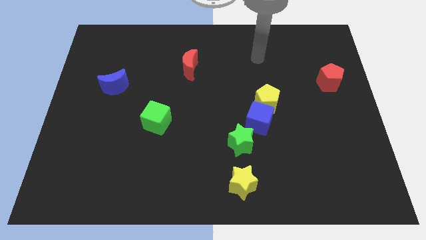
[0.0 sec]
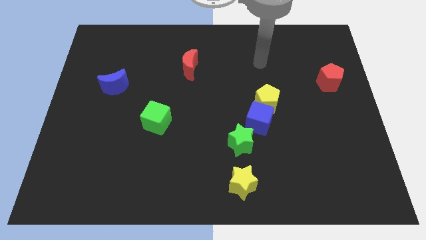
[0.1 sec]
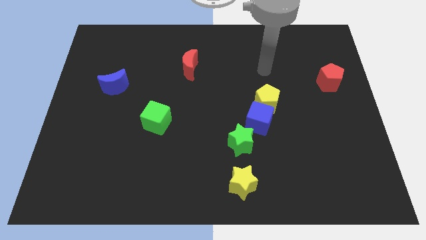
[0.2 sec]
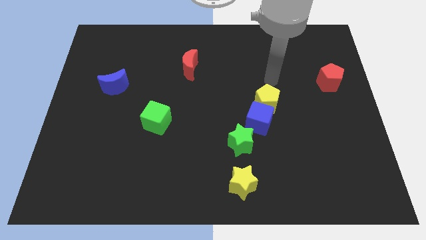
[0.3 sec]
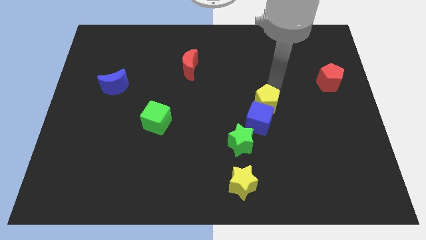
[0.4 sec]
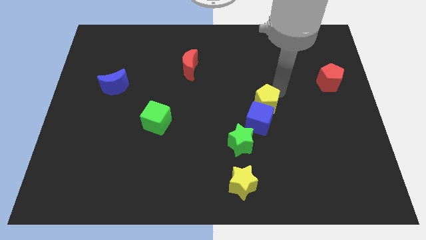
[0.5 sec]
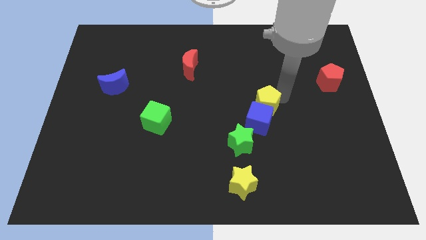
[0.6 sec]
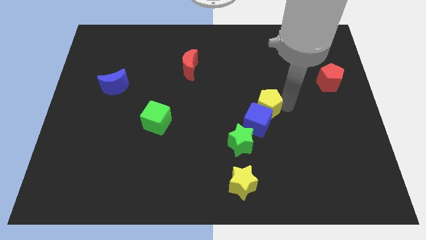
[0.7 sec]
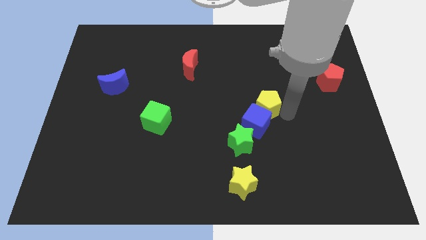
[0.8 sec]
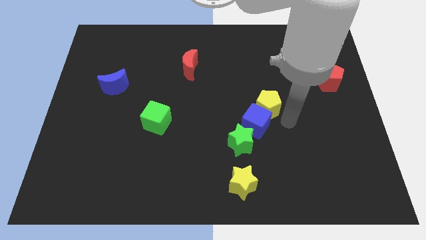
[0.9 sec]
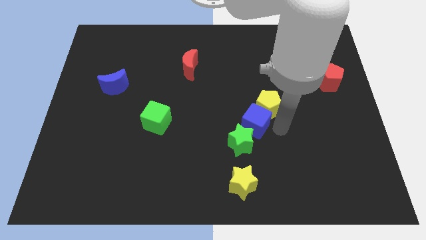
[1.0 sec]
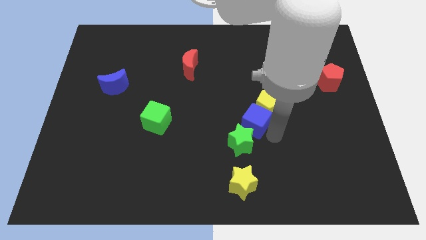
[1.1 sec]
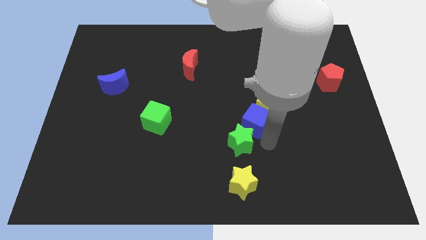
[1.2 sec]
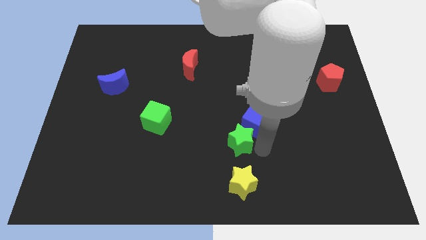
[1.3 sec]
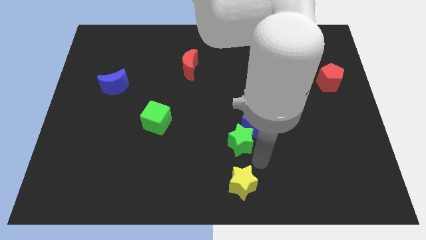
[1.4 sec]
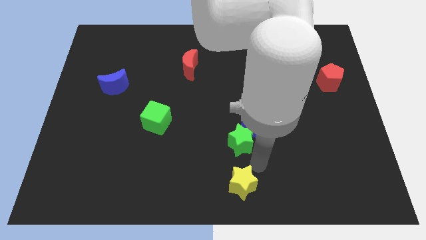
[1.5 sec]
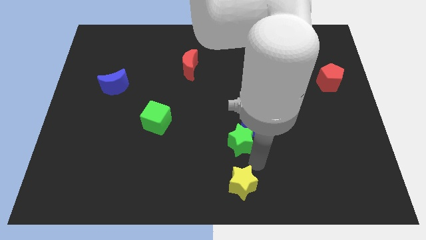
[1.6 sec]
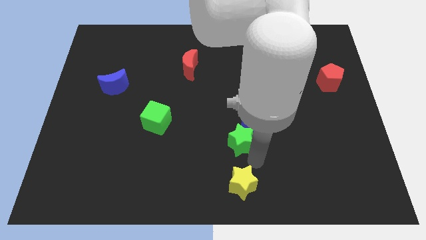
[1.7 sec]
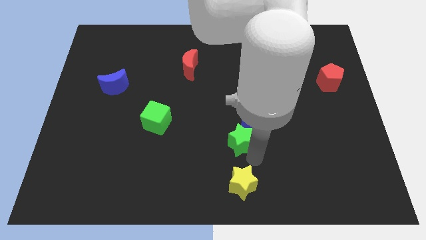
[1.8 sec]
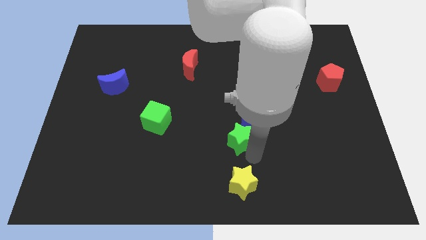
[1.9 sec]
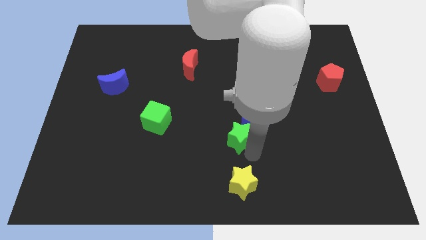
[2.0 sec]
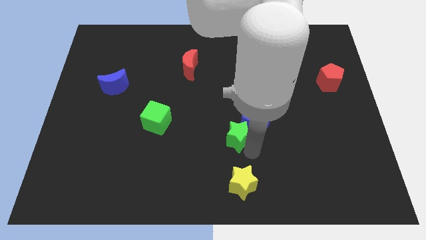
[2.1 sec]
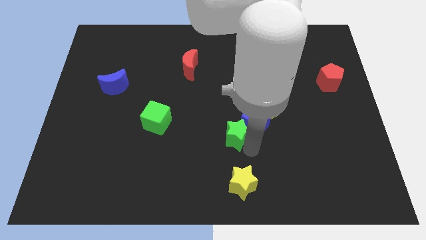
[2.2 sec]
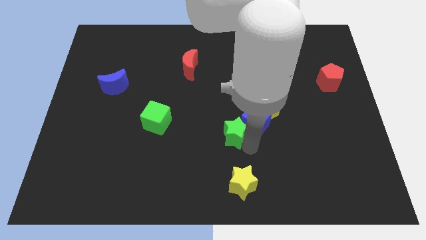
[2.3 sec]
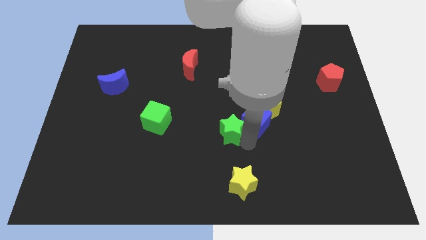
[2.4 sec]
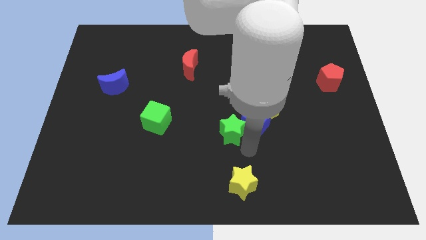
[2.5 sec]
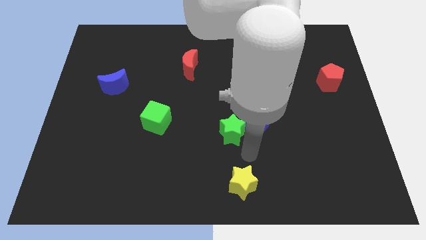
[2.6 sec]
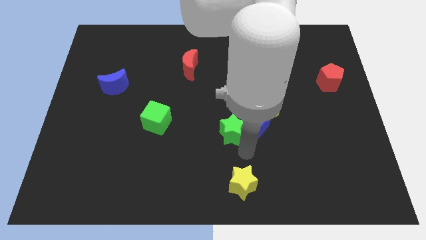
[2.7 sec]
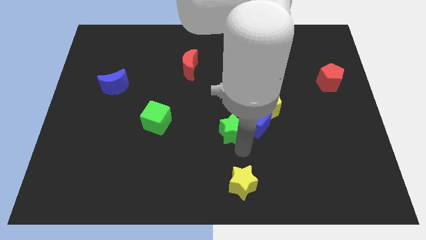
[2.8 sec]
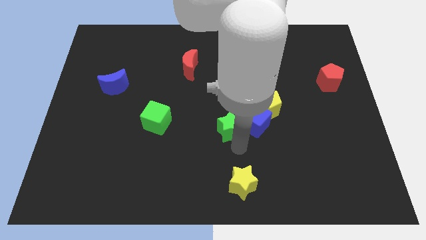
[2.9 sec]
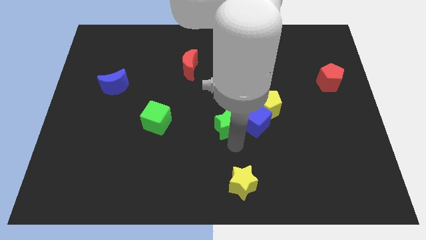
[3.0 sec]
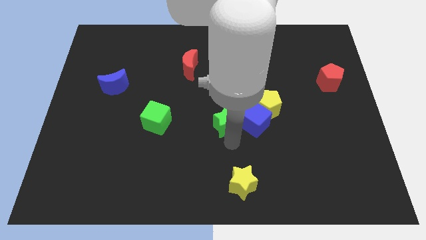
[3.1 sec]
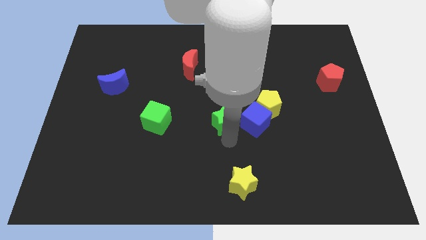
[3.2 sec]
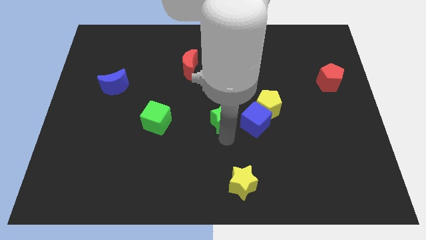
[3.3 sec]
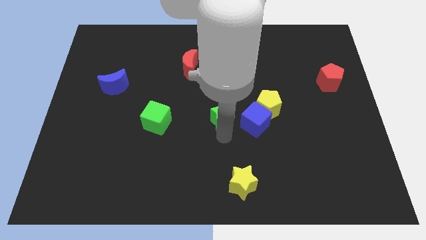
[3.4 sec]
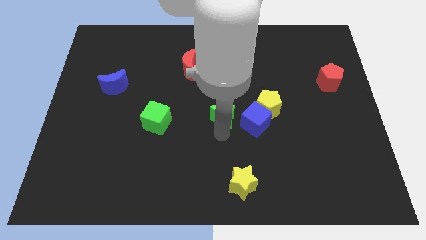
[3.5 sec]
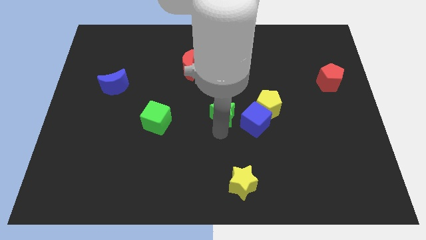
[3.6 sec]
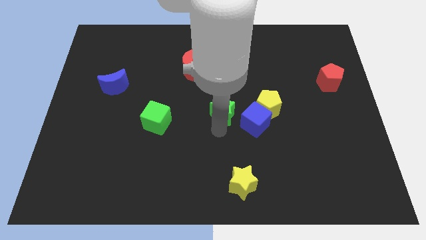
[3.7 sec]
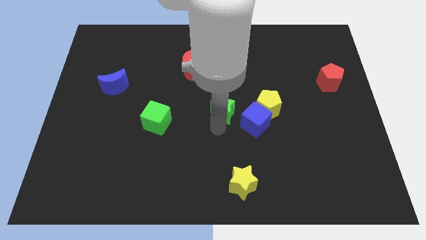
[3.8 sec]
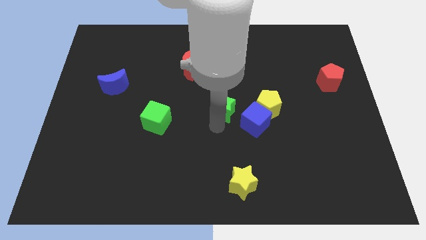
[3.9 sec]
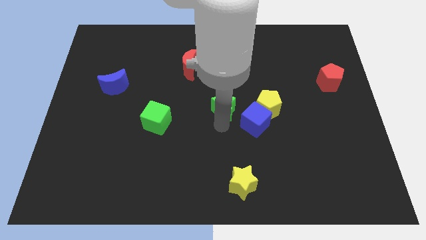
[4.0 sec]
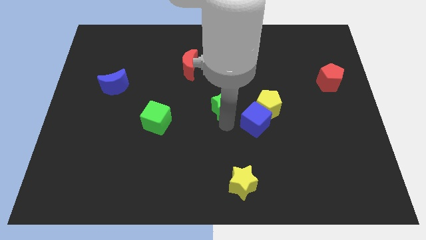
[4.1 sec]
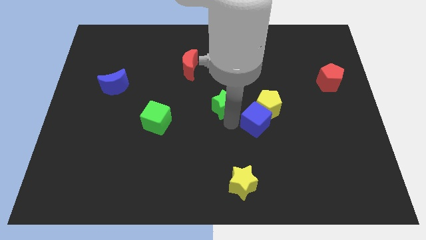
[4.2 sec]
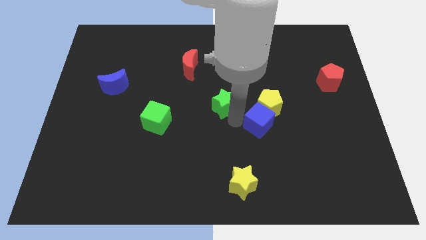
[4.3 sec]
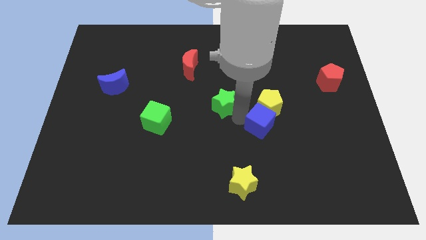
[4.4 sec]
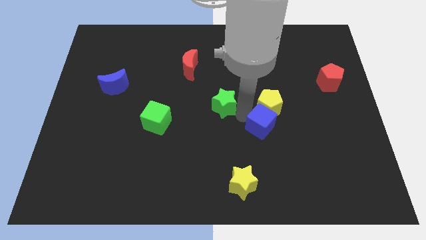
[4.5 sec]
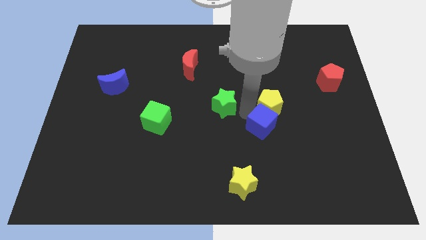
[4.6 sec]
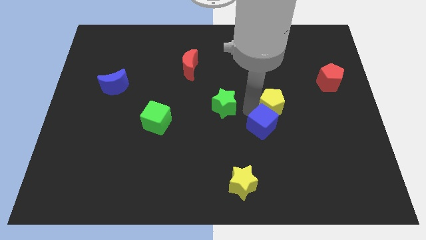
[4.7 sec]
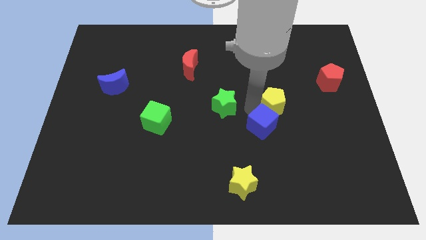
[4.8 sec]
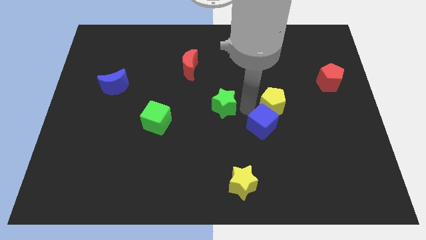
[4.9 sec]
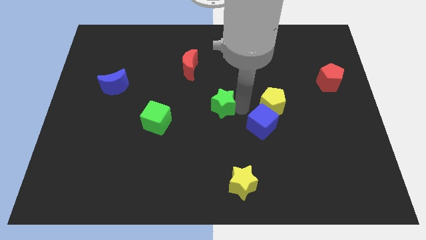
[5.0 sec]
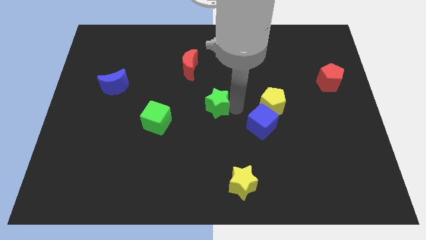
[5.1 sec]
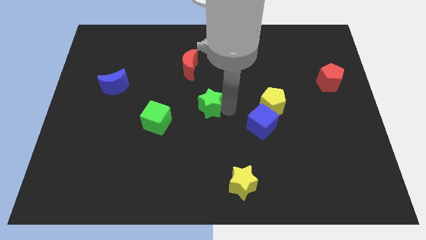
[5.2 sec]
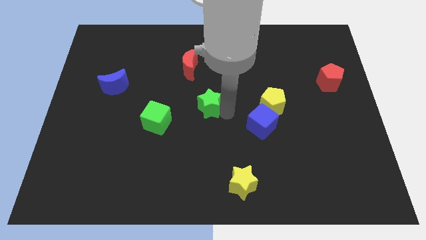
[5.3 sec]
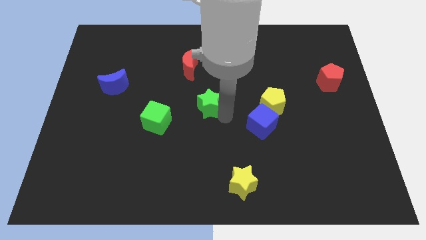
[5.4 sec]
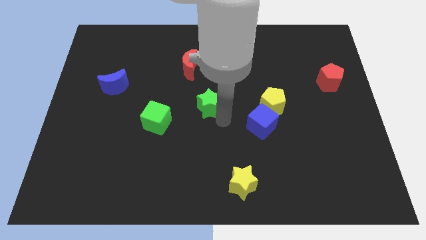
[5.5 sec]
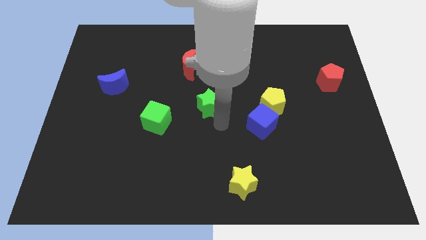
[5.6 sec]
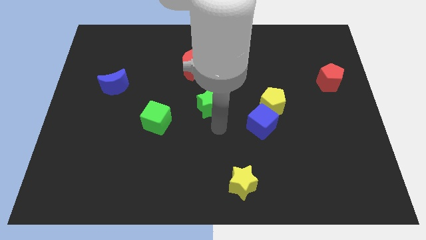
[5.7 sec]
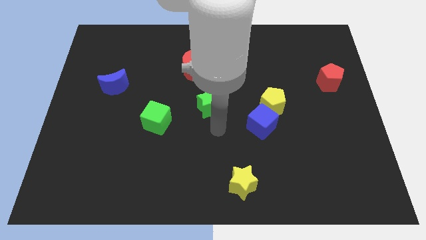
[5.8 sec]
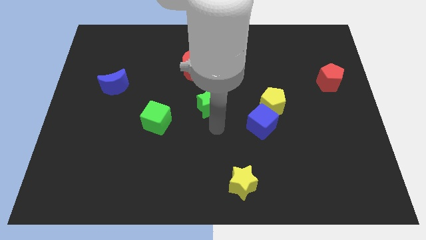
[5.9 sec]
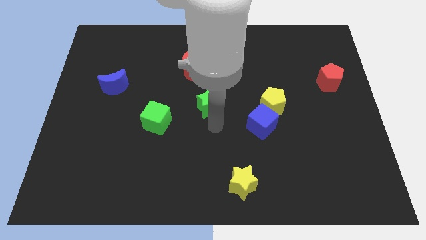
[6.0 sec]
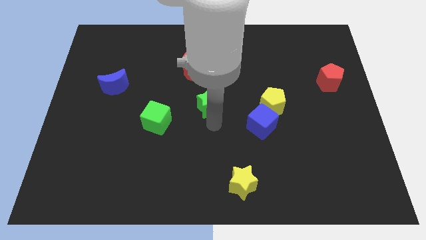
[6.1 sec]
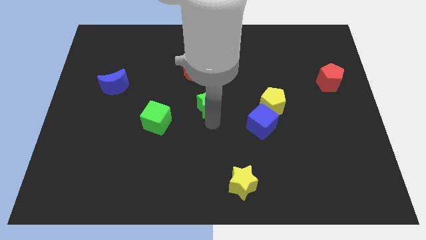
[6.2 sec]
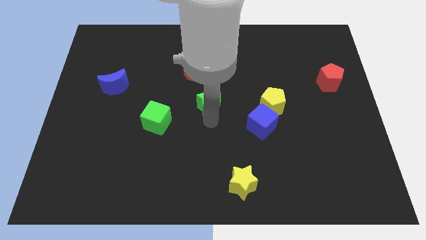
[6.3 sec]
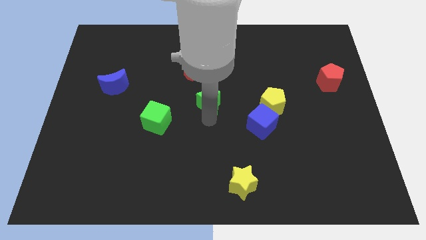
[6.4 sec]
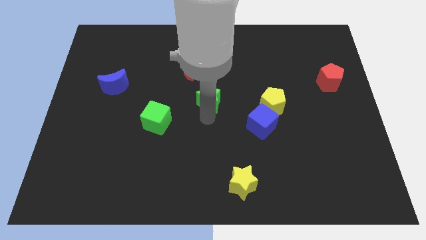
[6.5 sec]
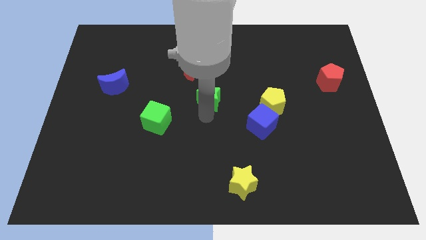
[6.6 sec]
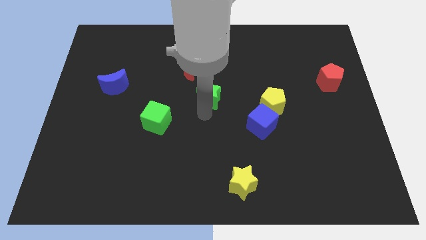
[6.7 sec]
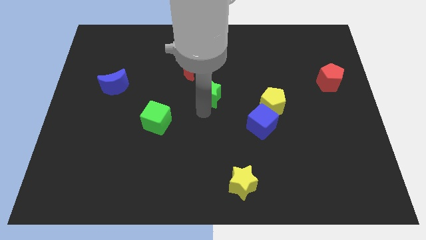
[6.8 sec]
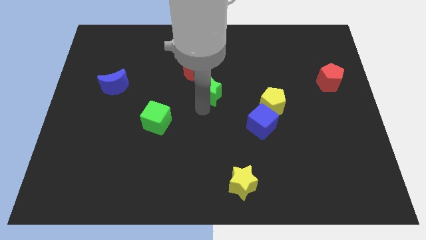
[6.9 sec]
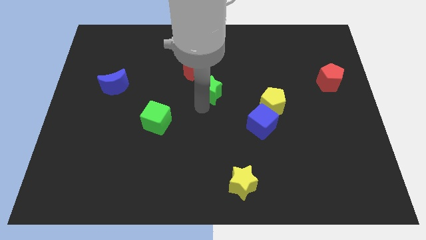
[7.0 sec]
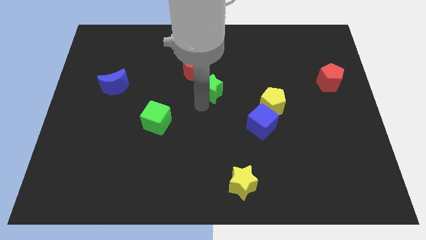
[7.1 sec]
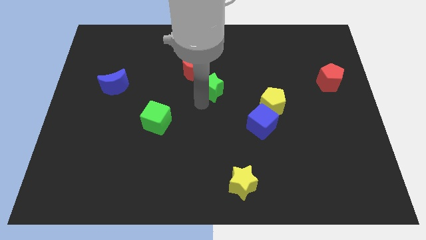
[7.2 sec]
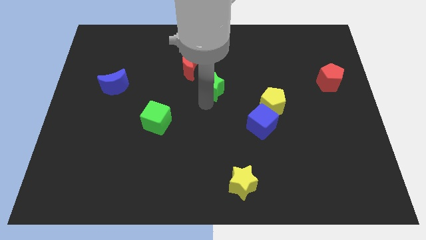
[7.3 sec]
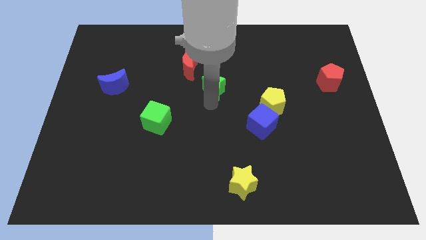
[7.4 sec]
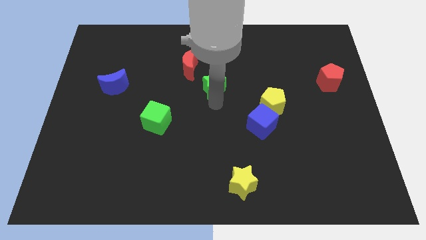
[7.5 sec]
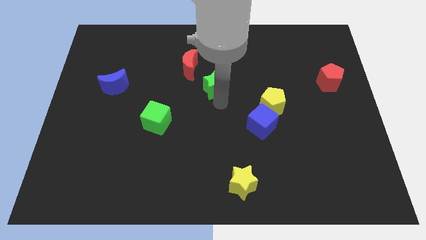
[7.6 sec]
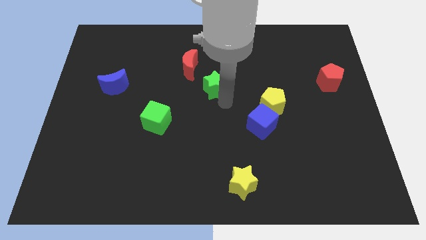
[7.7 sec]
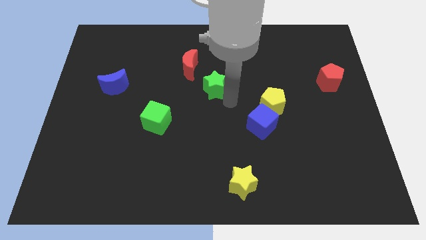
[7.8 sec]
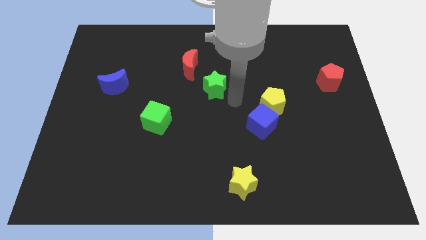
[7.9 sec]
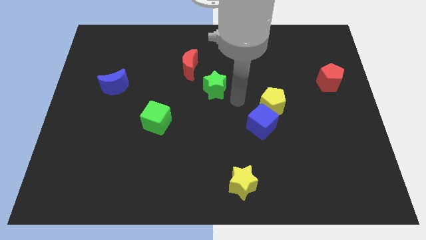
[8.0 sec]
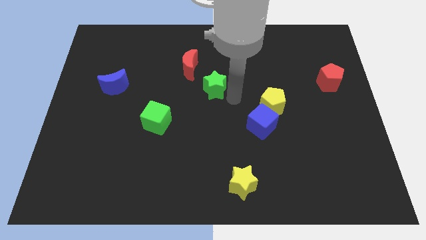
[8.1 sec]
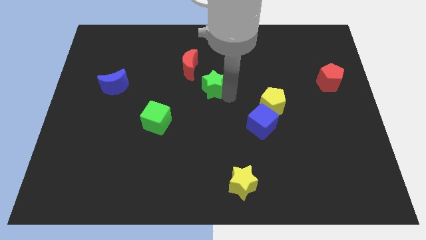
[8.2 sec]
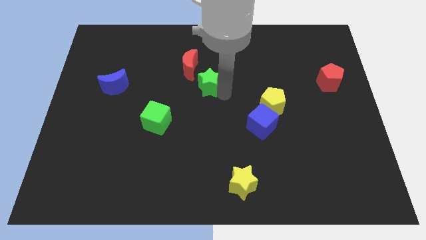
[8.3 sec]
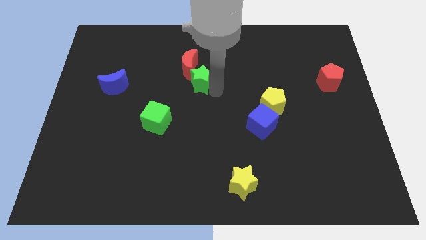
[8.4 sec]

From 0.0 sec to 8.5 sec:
slide the green star close to the red moon
